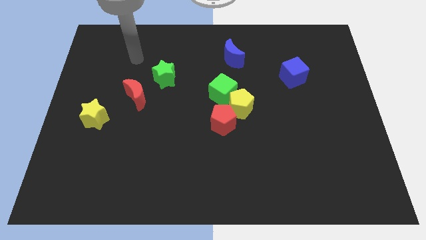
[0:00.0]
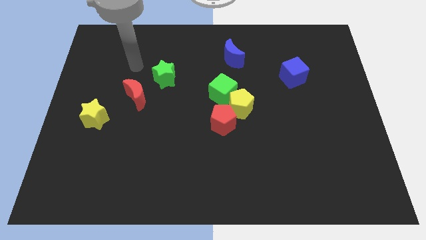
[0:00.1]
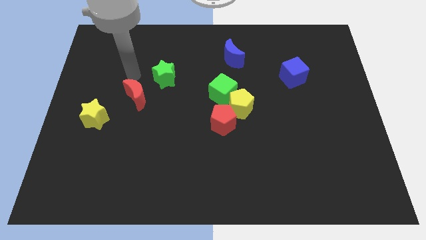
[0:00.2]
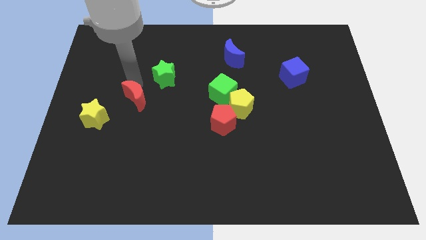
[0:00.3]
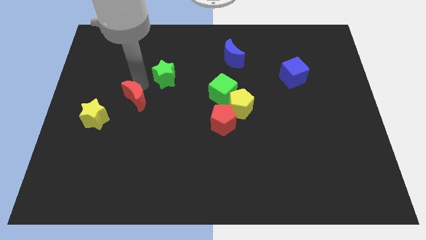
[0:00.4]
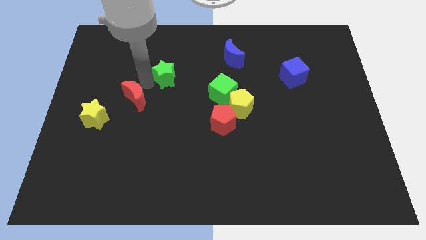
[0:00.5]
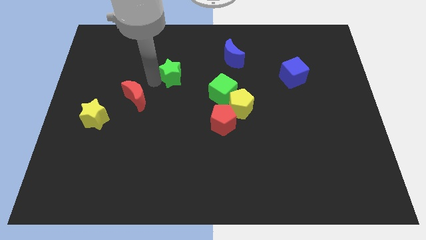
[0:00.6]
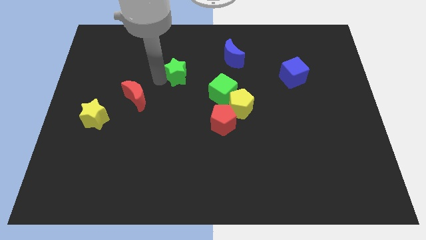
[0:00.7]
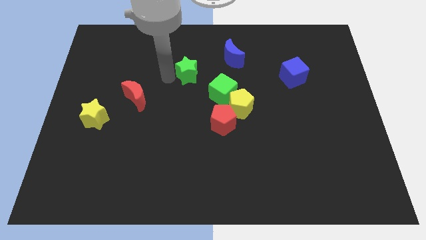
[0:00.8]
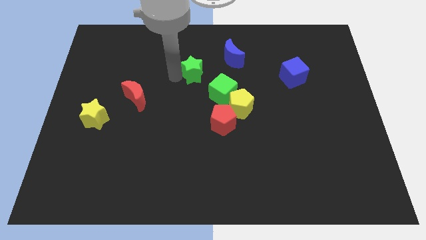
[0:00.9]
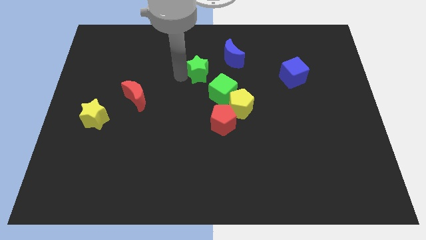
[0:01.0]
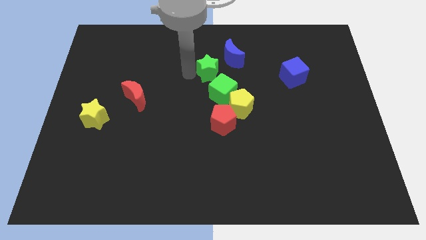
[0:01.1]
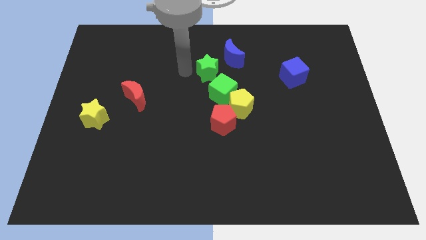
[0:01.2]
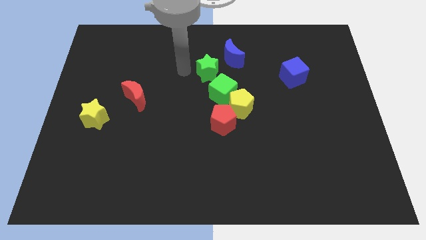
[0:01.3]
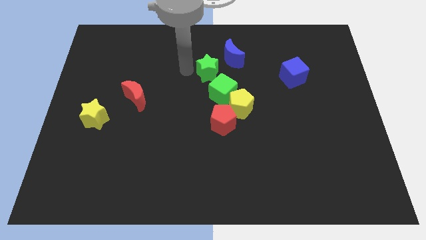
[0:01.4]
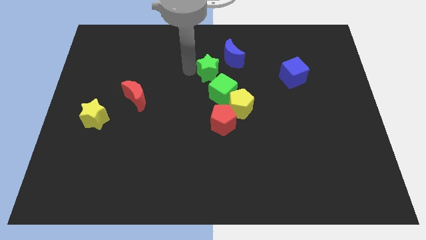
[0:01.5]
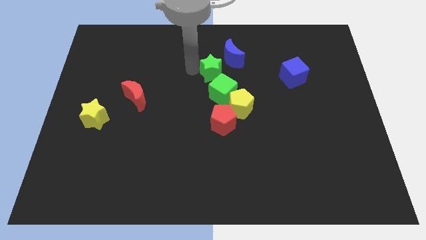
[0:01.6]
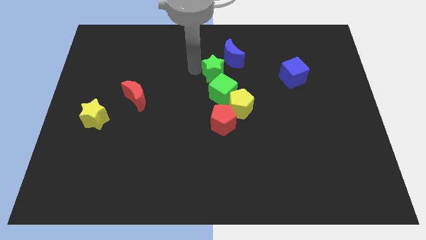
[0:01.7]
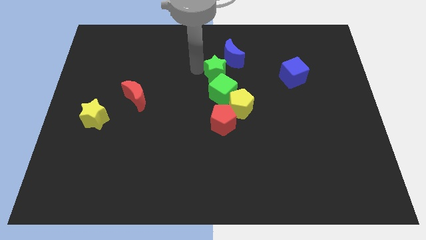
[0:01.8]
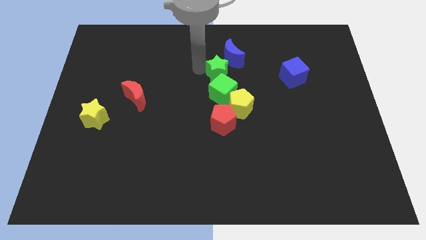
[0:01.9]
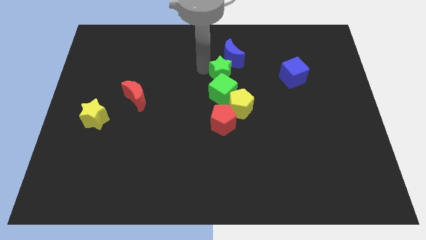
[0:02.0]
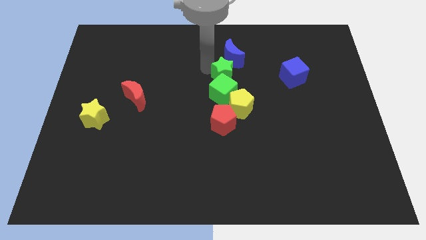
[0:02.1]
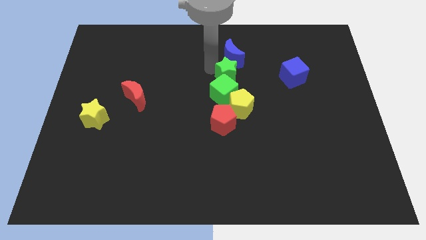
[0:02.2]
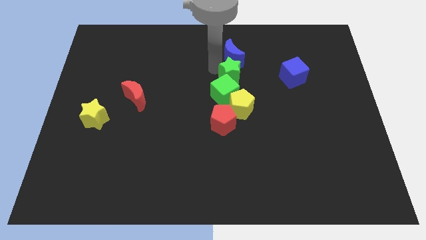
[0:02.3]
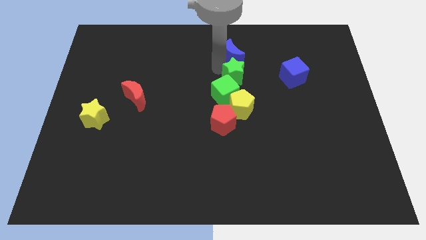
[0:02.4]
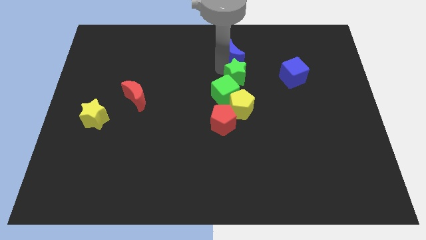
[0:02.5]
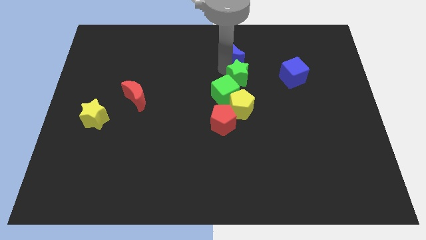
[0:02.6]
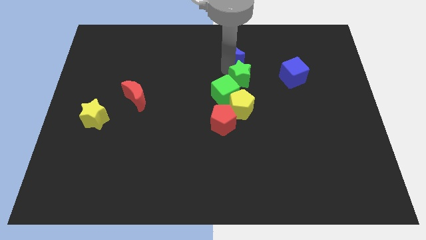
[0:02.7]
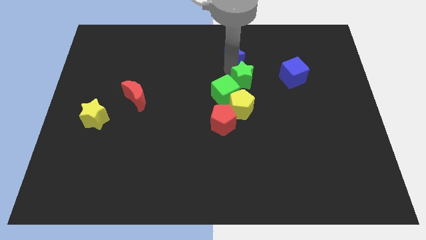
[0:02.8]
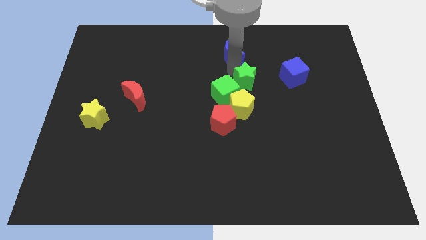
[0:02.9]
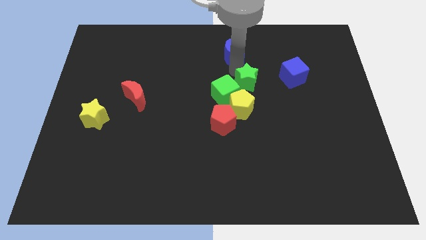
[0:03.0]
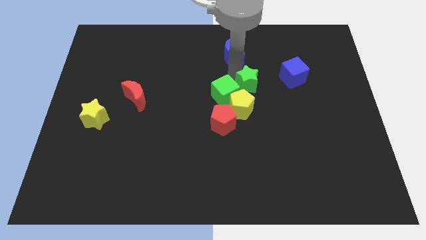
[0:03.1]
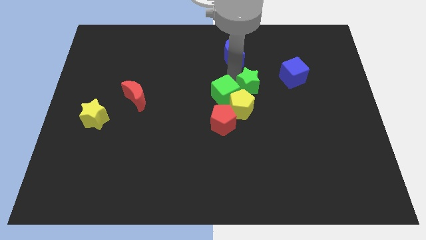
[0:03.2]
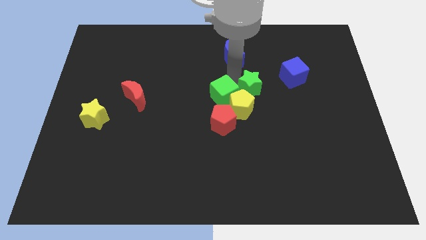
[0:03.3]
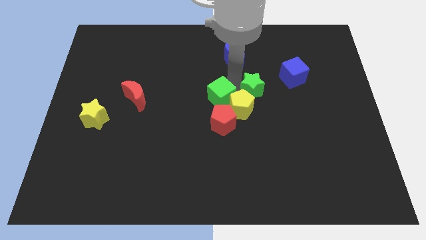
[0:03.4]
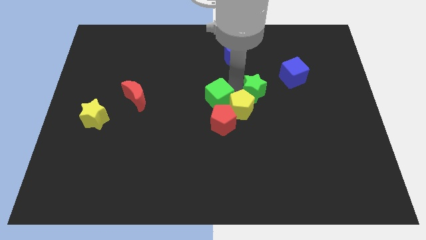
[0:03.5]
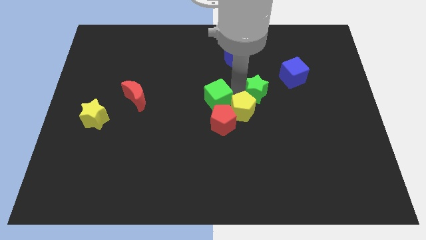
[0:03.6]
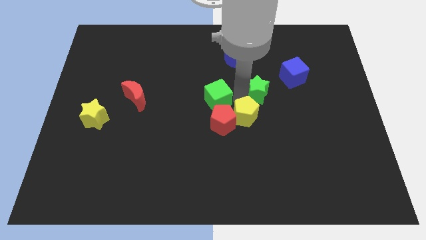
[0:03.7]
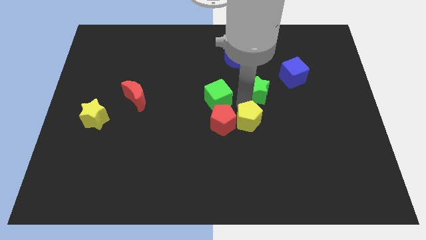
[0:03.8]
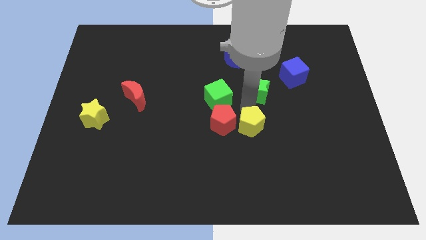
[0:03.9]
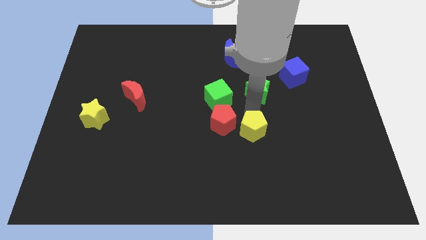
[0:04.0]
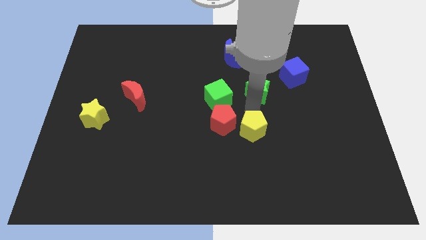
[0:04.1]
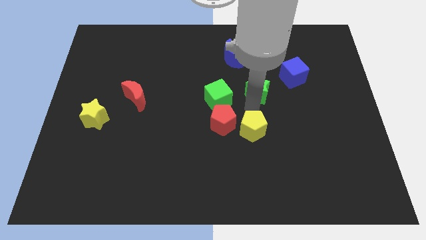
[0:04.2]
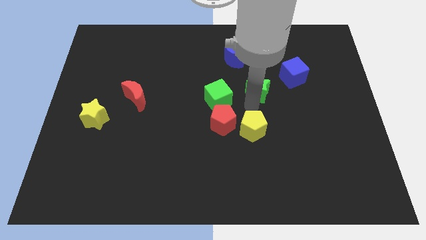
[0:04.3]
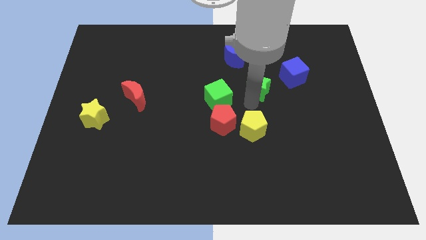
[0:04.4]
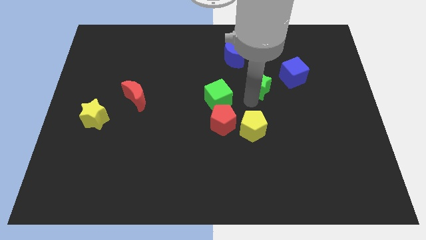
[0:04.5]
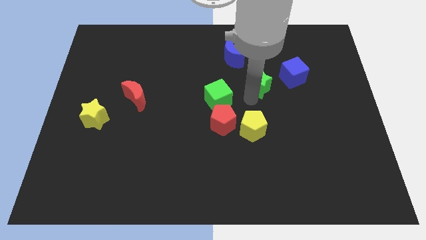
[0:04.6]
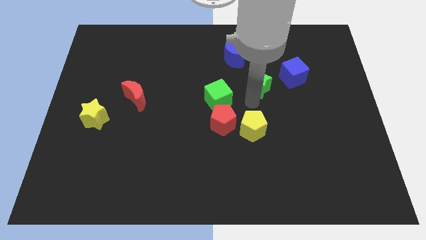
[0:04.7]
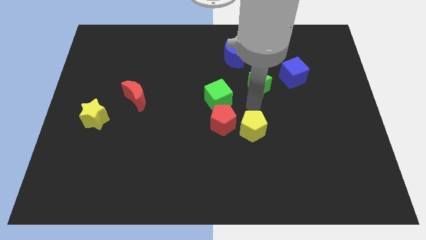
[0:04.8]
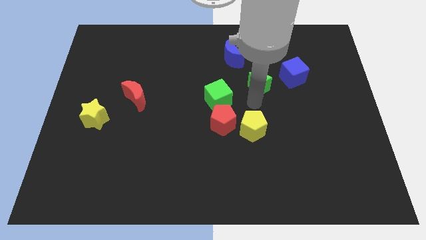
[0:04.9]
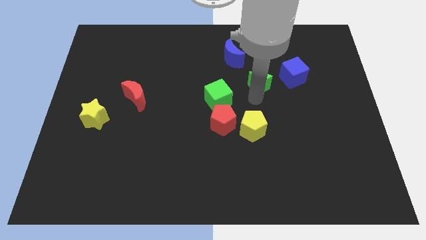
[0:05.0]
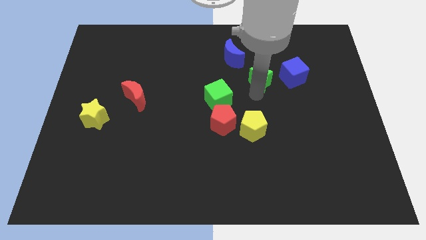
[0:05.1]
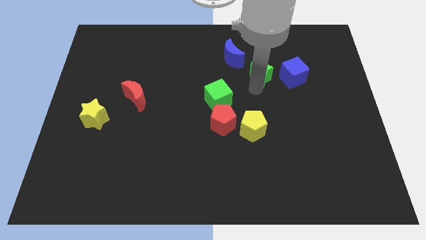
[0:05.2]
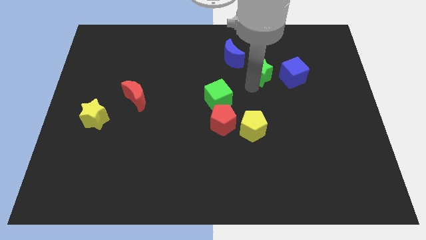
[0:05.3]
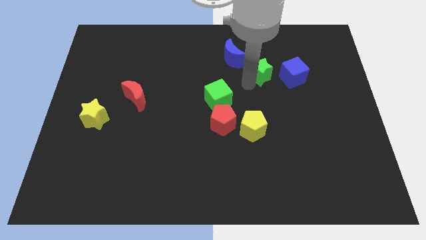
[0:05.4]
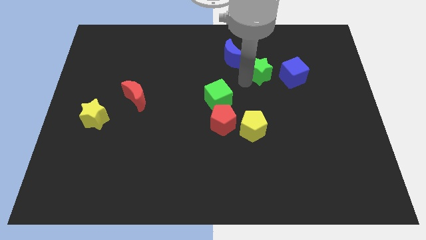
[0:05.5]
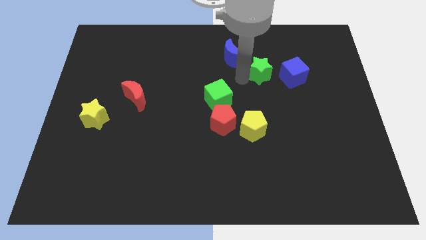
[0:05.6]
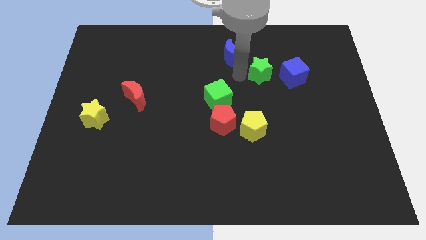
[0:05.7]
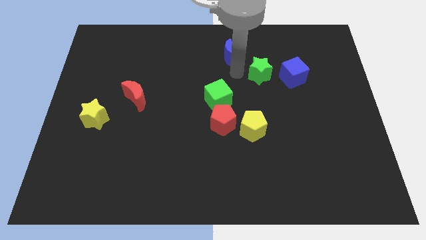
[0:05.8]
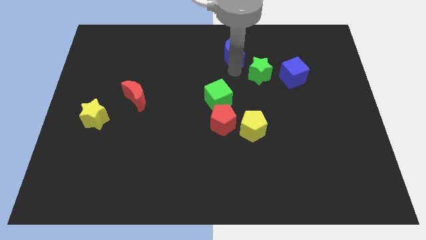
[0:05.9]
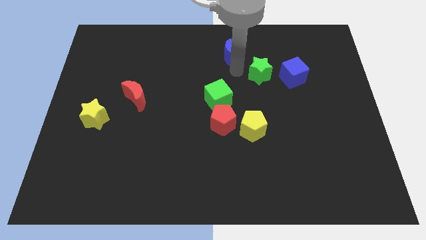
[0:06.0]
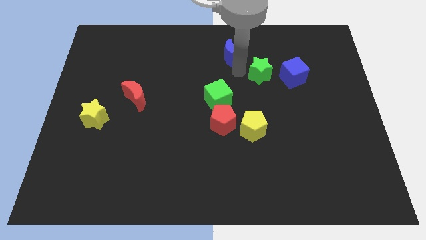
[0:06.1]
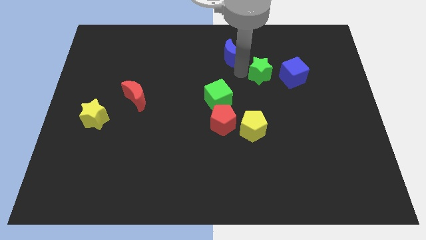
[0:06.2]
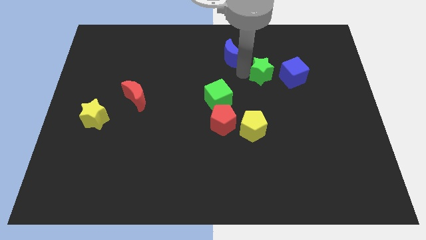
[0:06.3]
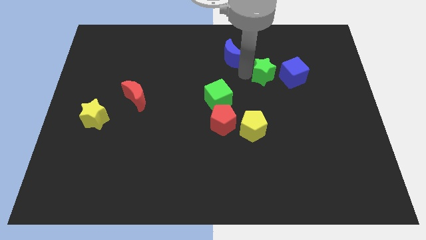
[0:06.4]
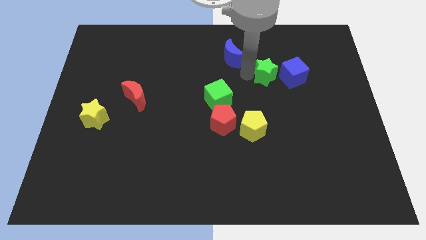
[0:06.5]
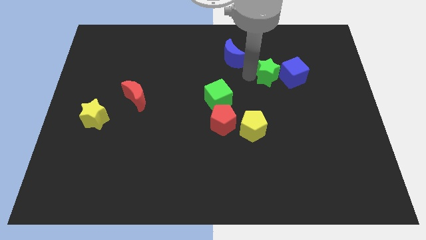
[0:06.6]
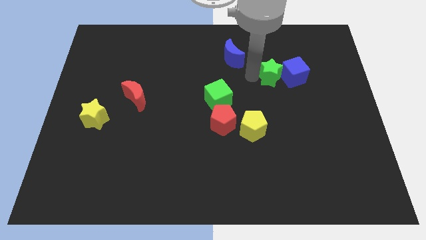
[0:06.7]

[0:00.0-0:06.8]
put the green star towards the blue cube

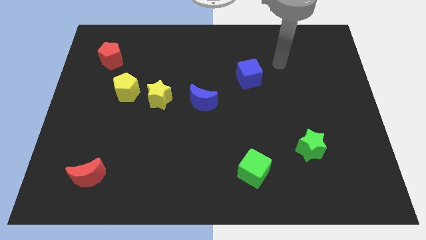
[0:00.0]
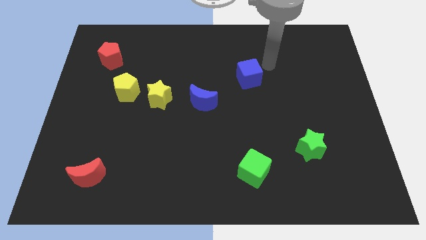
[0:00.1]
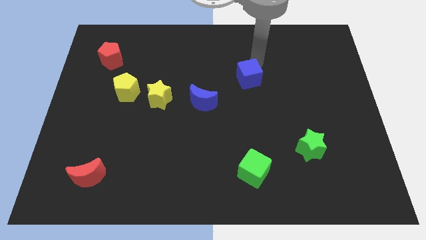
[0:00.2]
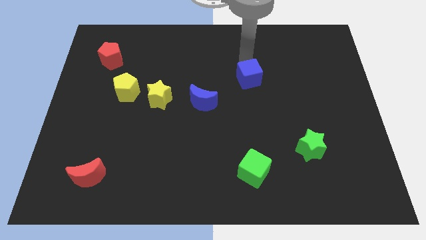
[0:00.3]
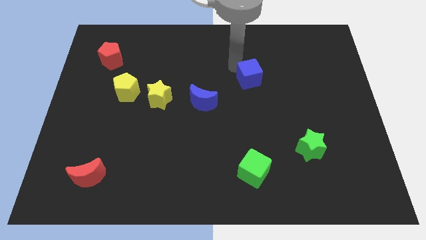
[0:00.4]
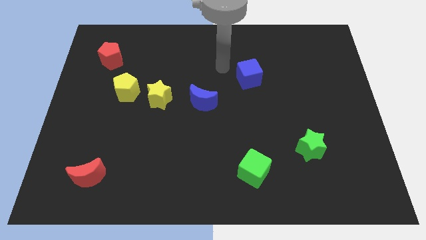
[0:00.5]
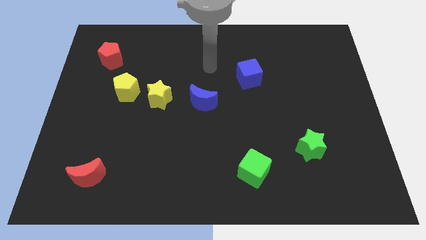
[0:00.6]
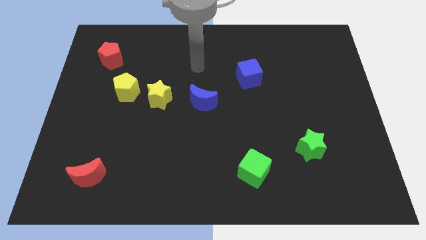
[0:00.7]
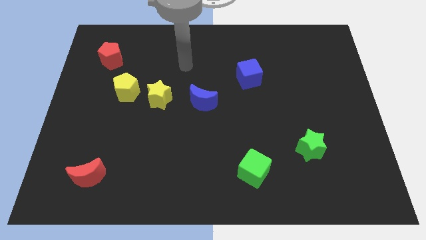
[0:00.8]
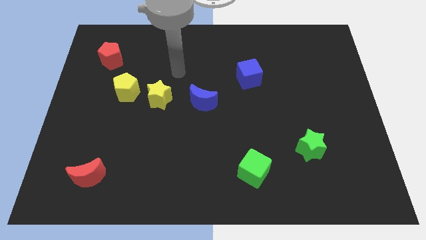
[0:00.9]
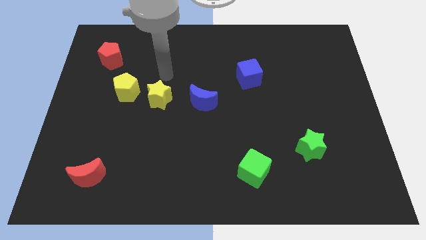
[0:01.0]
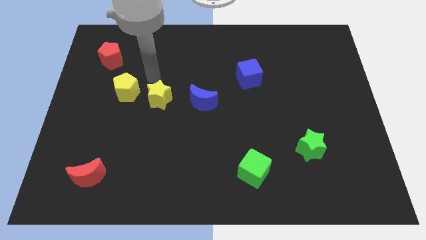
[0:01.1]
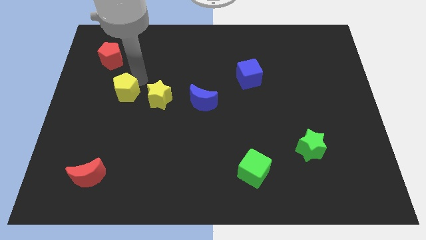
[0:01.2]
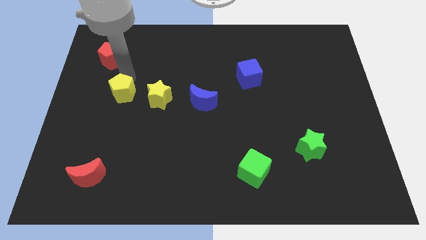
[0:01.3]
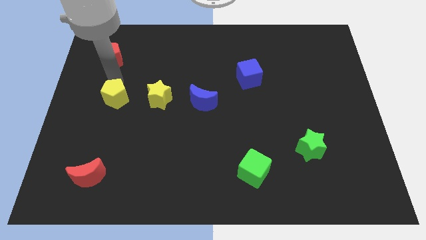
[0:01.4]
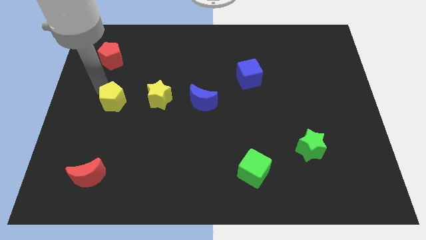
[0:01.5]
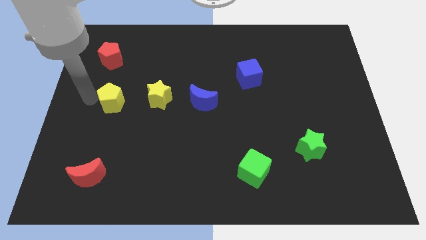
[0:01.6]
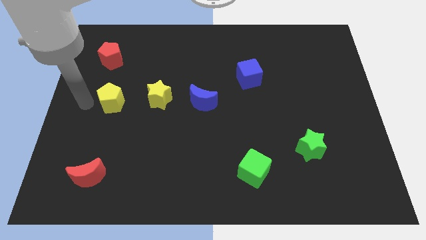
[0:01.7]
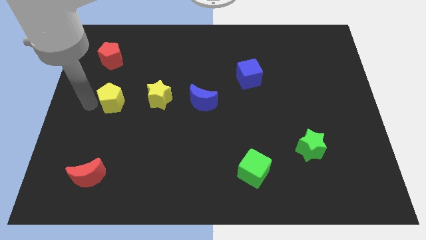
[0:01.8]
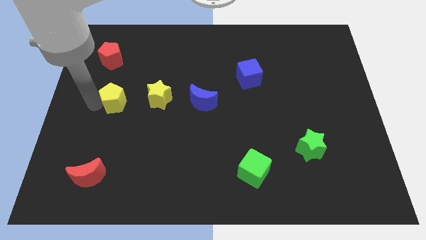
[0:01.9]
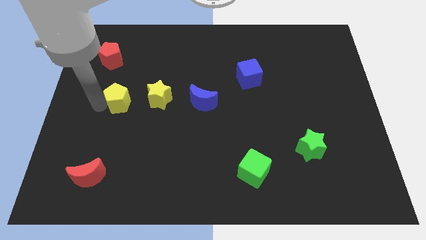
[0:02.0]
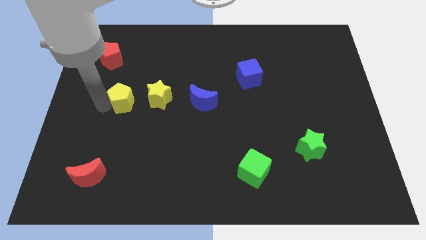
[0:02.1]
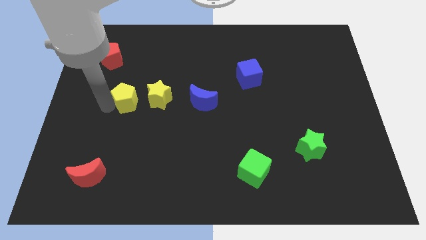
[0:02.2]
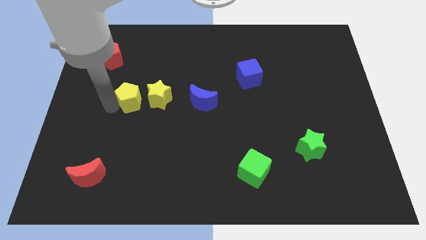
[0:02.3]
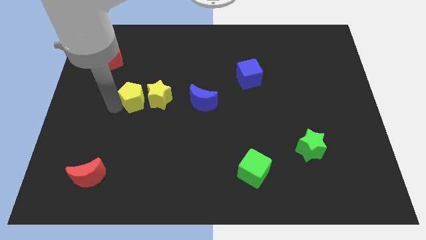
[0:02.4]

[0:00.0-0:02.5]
slide the yellow pentagon close to the yellow star
